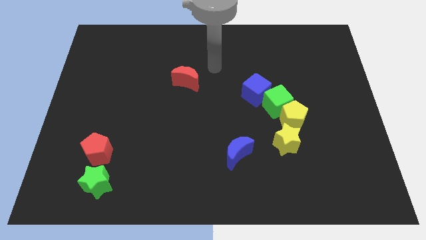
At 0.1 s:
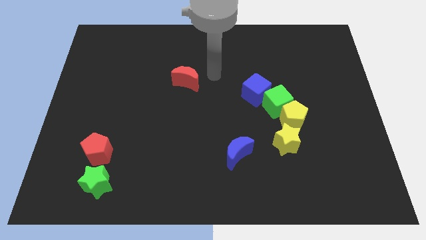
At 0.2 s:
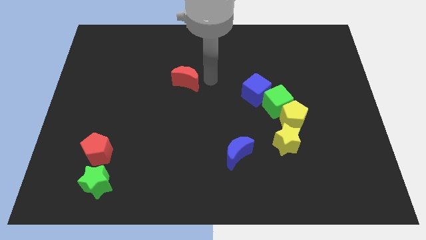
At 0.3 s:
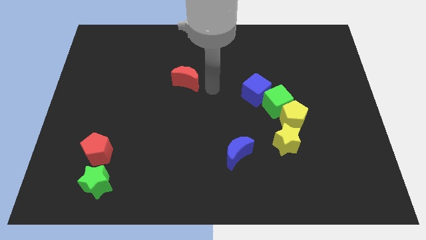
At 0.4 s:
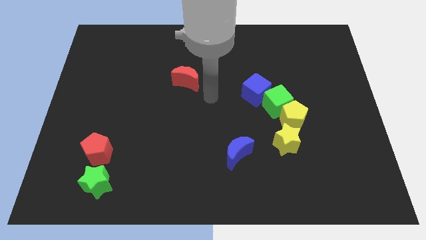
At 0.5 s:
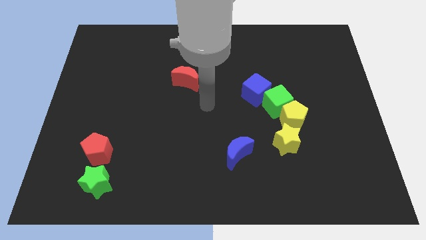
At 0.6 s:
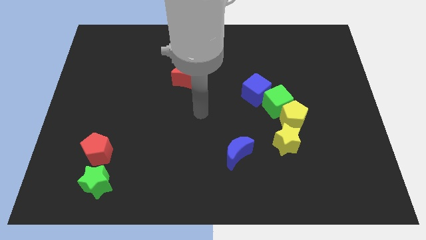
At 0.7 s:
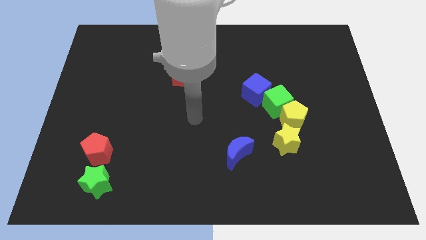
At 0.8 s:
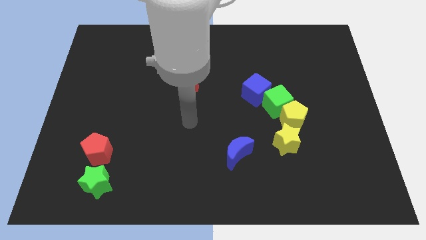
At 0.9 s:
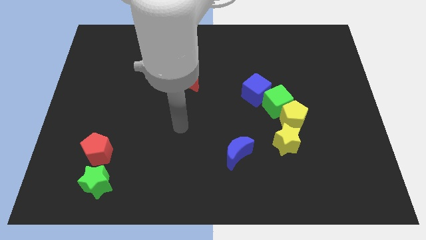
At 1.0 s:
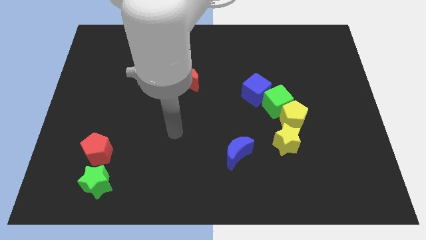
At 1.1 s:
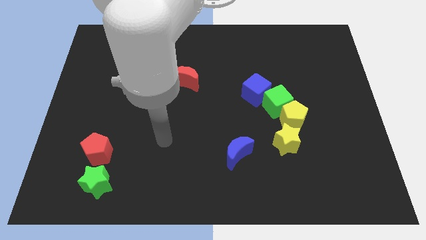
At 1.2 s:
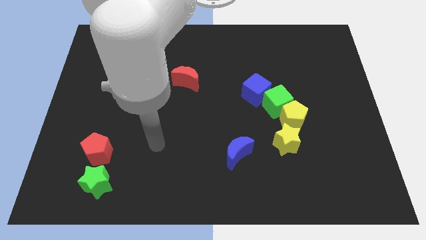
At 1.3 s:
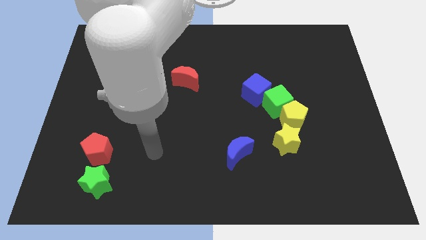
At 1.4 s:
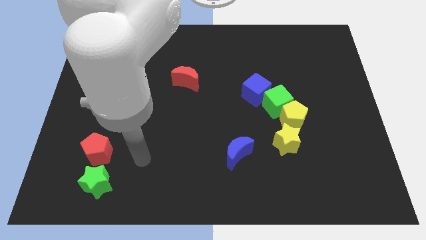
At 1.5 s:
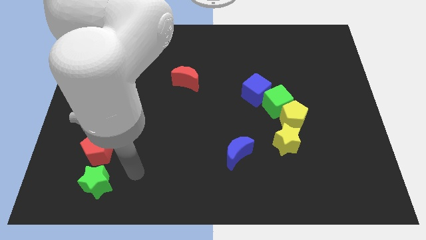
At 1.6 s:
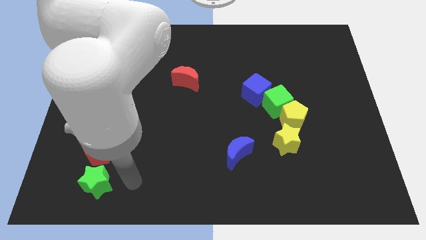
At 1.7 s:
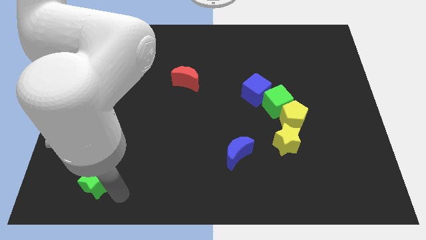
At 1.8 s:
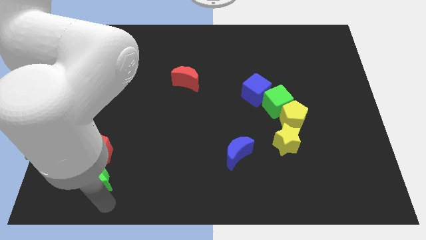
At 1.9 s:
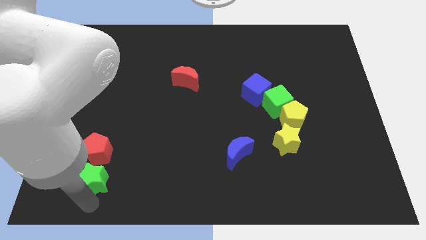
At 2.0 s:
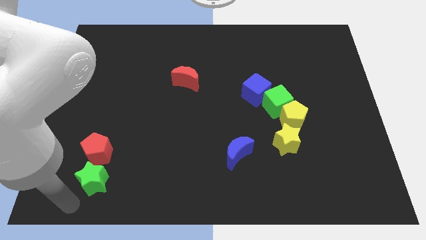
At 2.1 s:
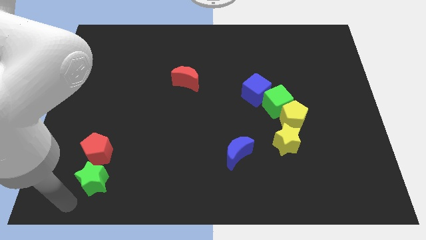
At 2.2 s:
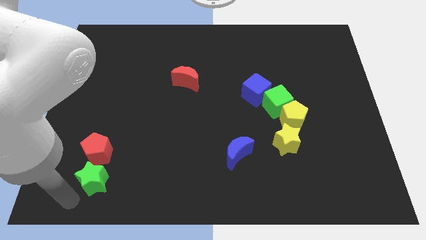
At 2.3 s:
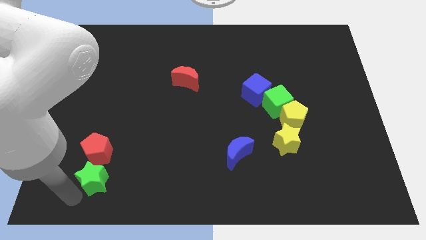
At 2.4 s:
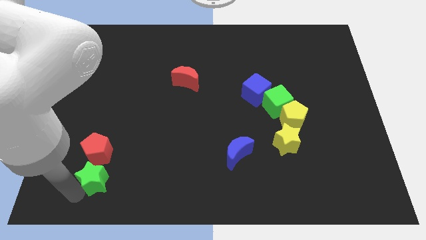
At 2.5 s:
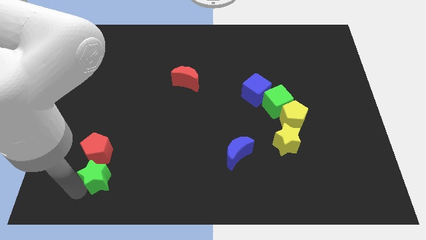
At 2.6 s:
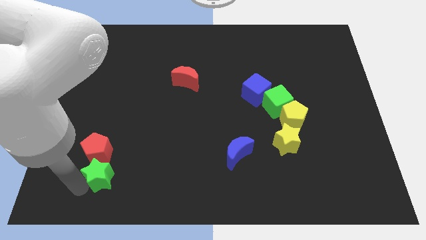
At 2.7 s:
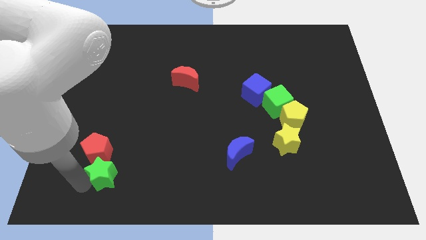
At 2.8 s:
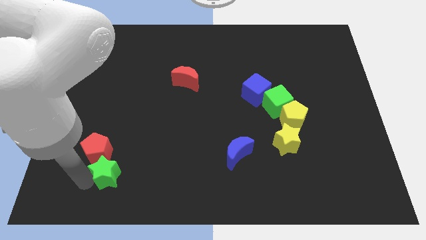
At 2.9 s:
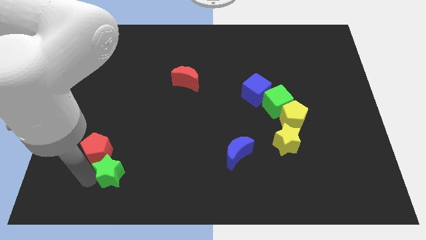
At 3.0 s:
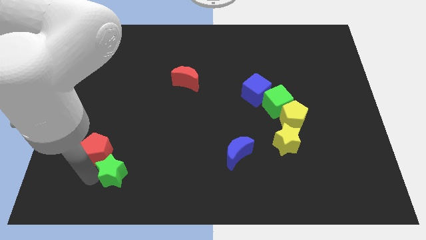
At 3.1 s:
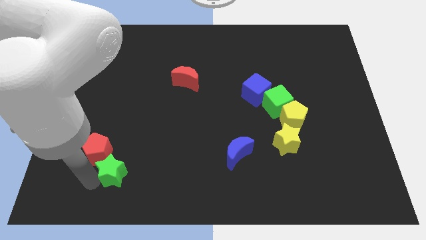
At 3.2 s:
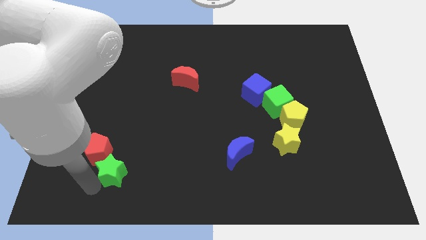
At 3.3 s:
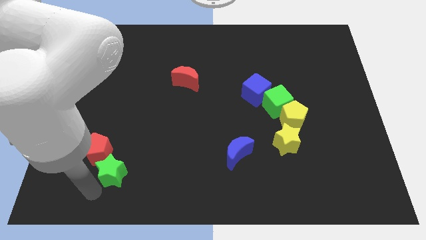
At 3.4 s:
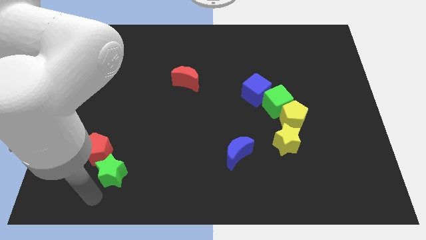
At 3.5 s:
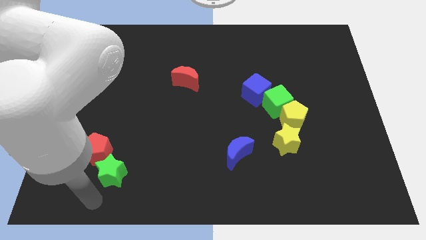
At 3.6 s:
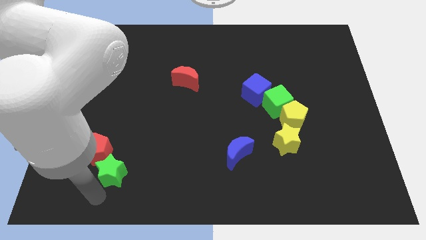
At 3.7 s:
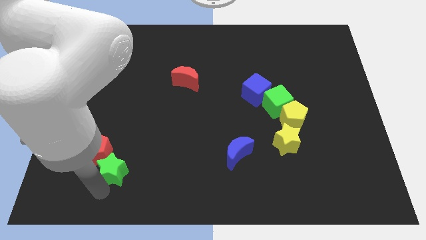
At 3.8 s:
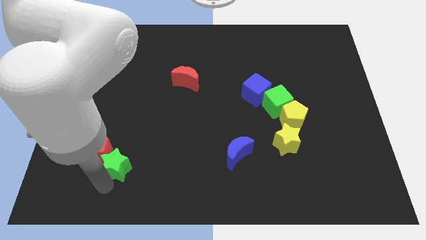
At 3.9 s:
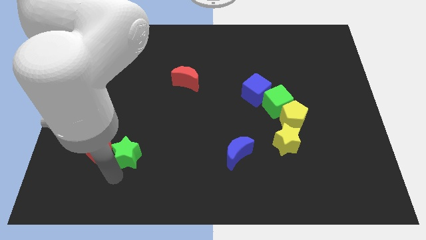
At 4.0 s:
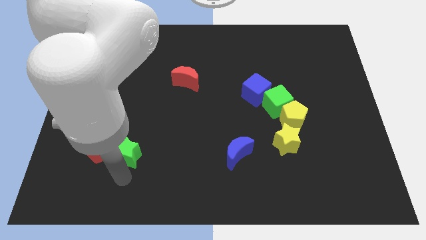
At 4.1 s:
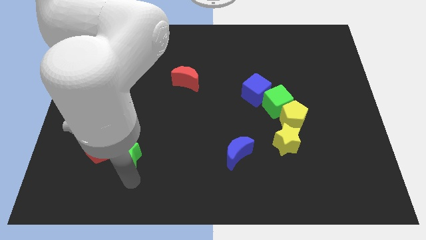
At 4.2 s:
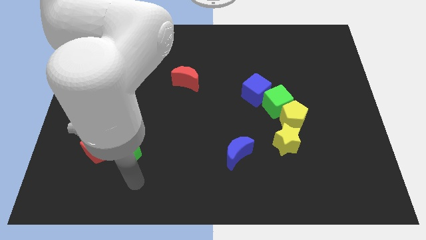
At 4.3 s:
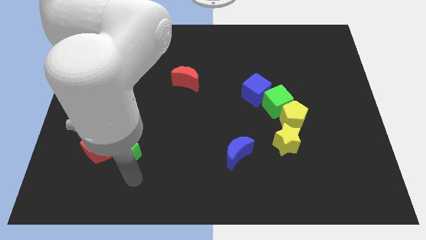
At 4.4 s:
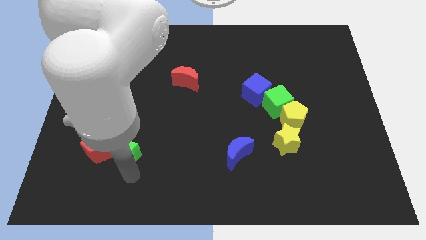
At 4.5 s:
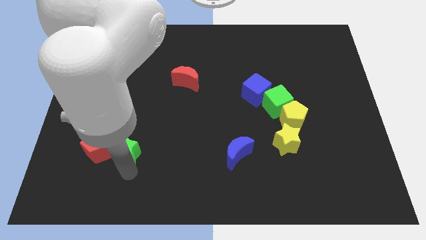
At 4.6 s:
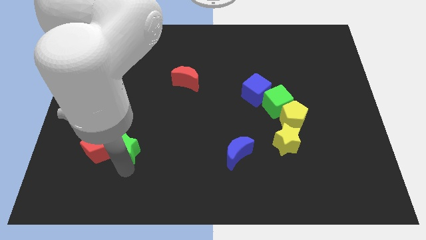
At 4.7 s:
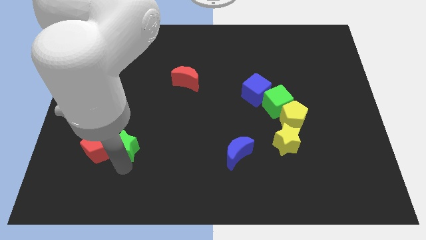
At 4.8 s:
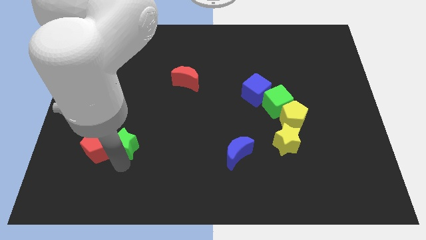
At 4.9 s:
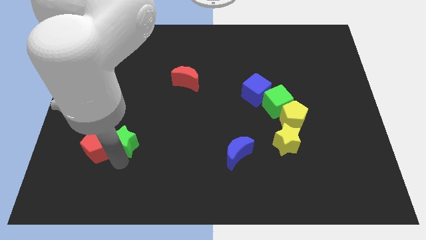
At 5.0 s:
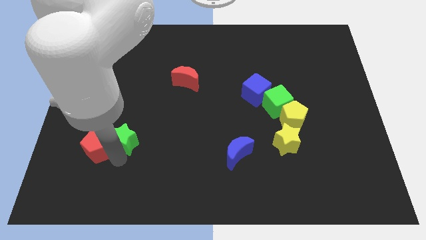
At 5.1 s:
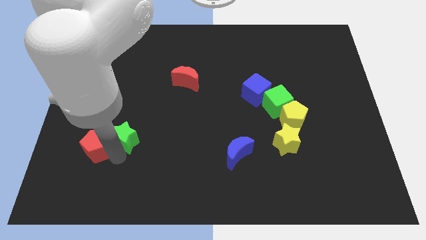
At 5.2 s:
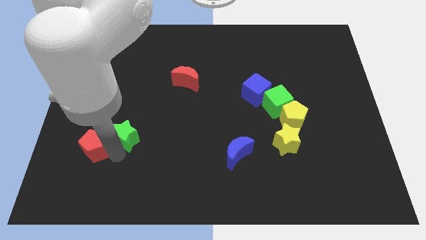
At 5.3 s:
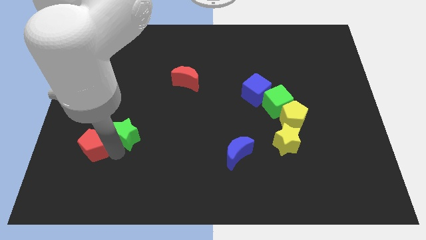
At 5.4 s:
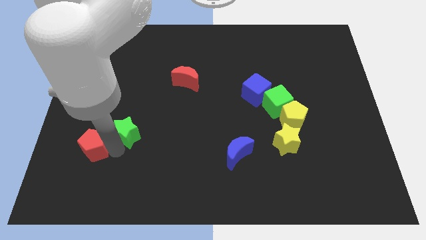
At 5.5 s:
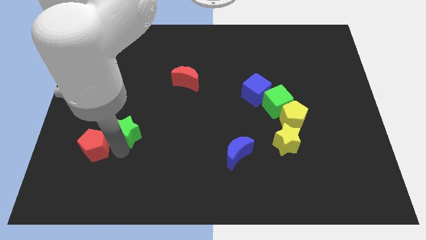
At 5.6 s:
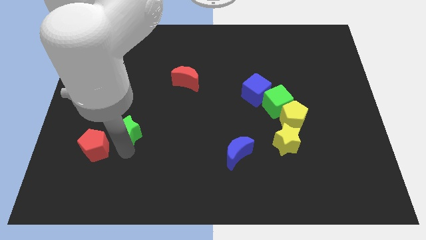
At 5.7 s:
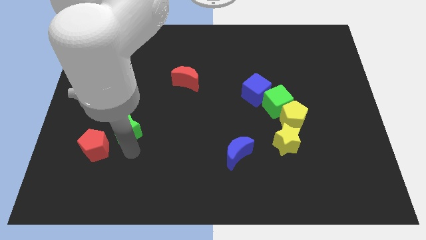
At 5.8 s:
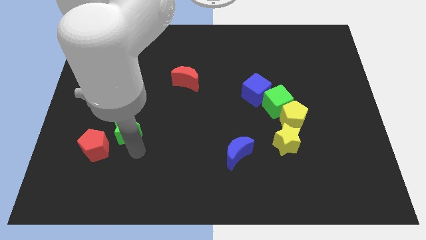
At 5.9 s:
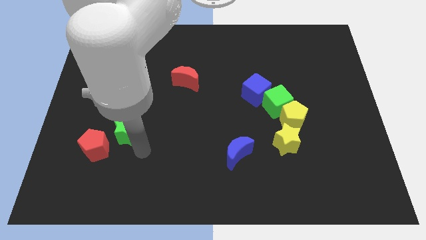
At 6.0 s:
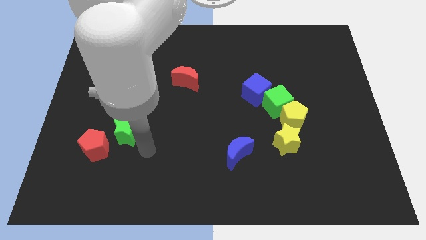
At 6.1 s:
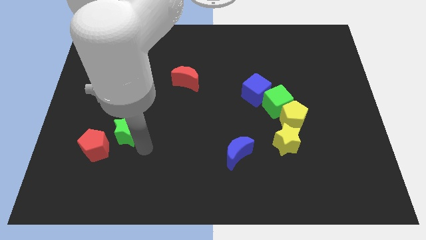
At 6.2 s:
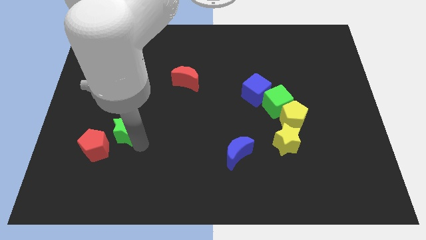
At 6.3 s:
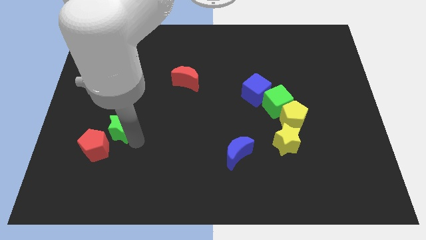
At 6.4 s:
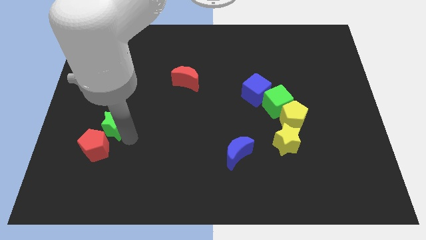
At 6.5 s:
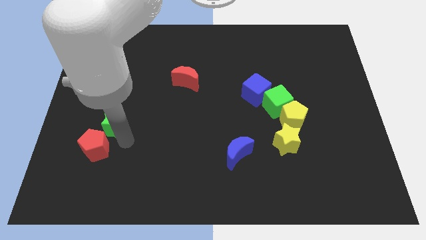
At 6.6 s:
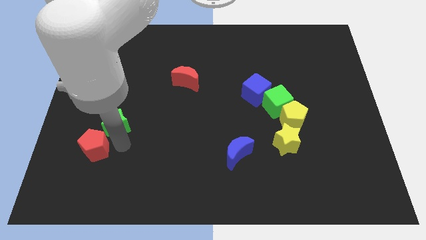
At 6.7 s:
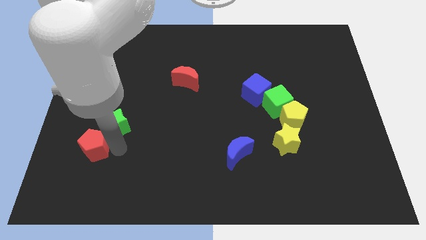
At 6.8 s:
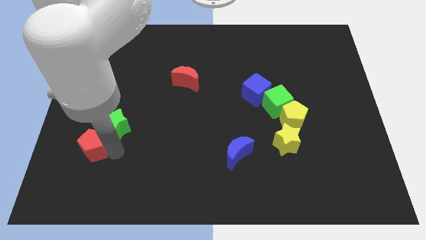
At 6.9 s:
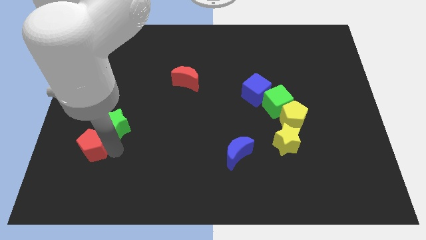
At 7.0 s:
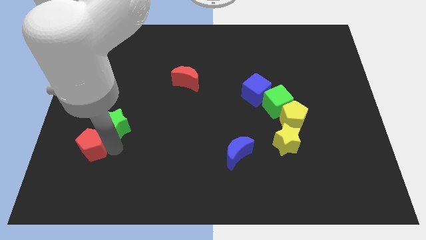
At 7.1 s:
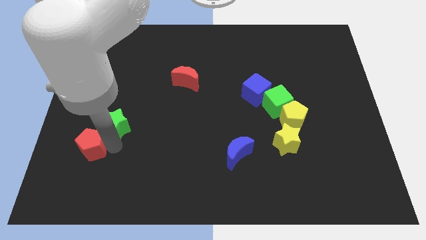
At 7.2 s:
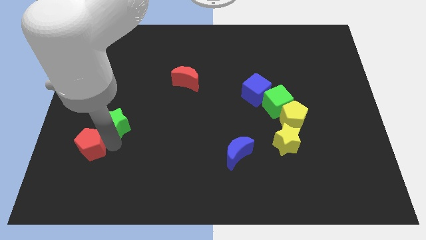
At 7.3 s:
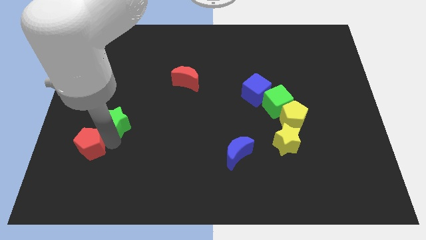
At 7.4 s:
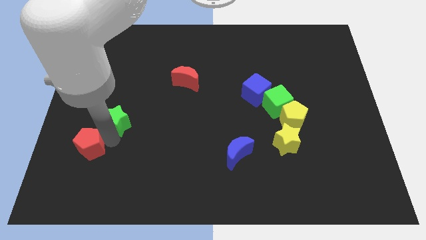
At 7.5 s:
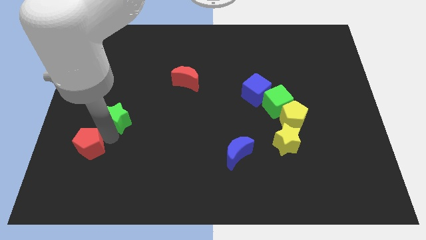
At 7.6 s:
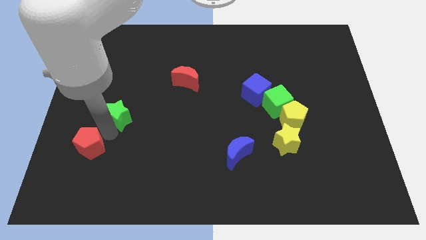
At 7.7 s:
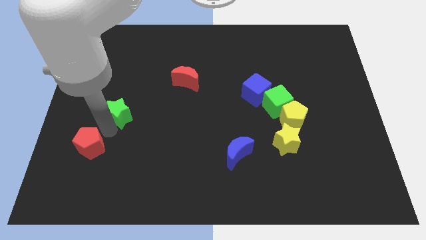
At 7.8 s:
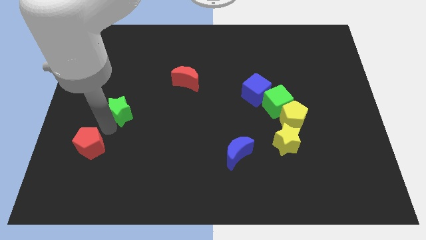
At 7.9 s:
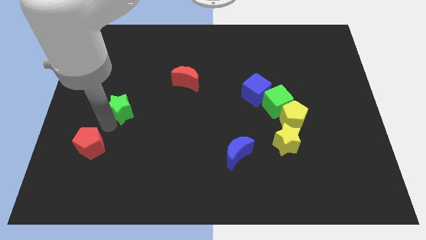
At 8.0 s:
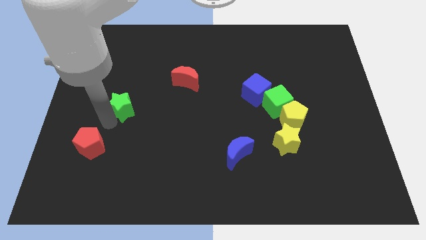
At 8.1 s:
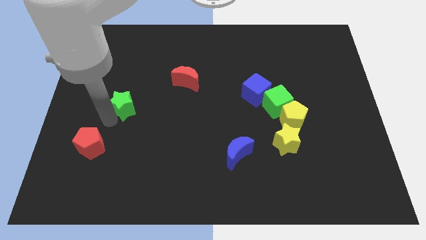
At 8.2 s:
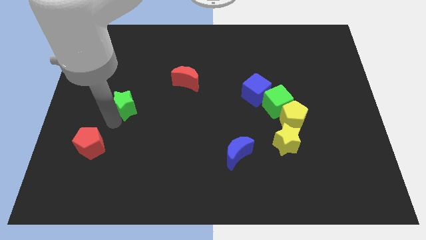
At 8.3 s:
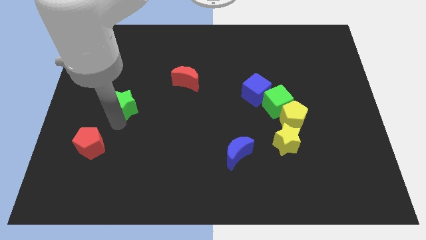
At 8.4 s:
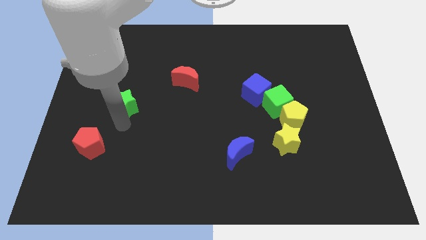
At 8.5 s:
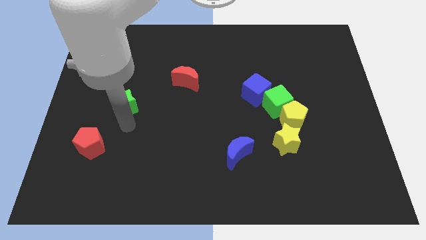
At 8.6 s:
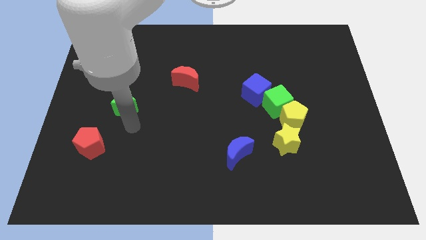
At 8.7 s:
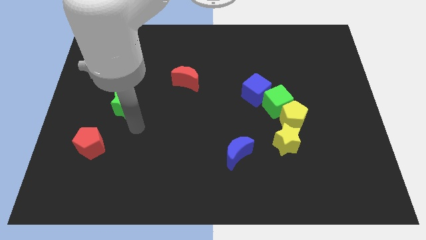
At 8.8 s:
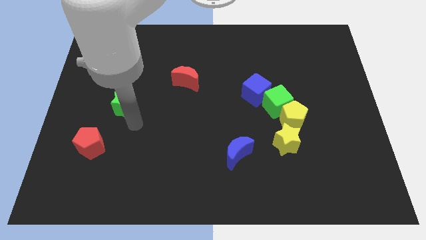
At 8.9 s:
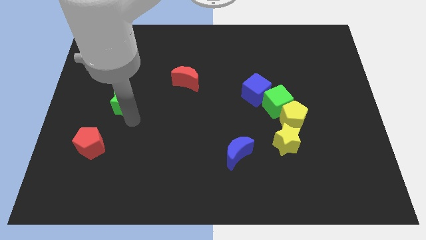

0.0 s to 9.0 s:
push the green star up
